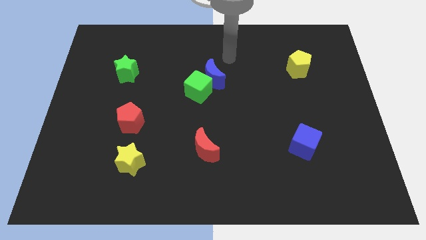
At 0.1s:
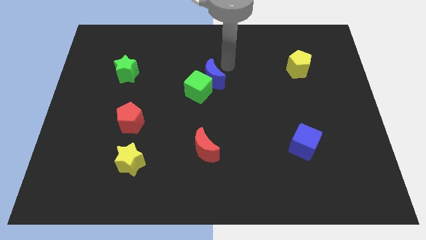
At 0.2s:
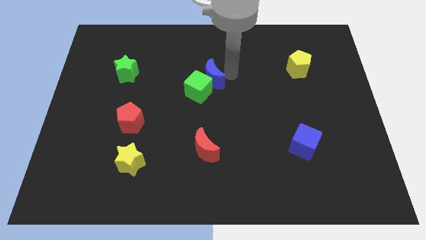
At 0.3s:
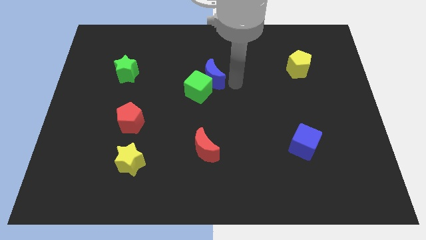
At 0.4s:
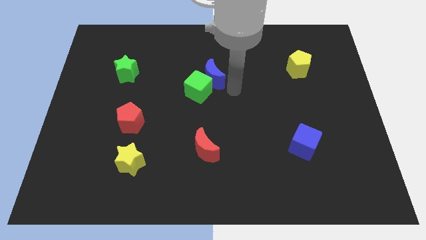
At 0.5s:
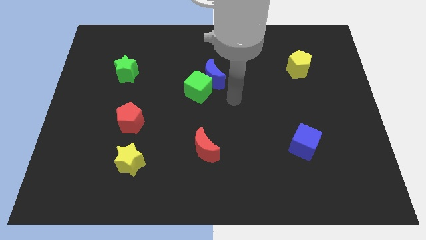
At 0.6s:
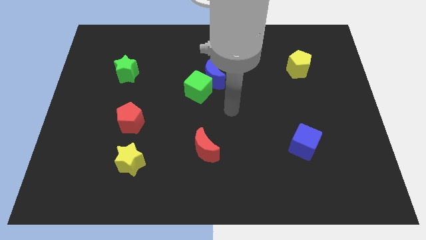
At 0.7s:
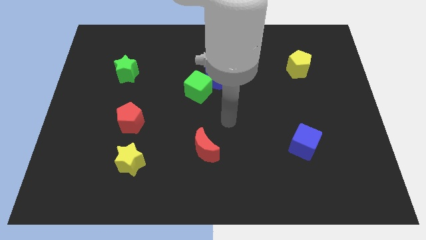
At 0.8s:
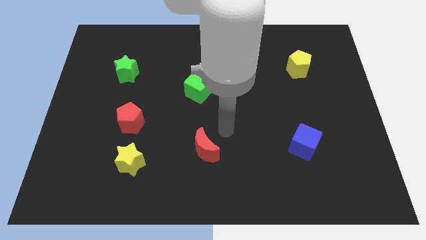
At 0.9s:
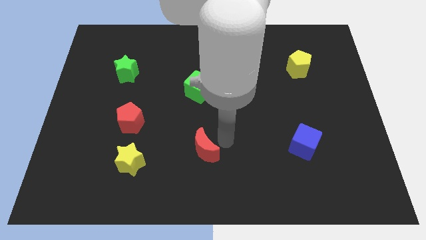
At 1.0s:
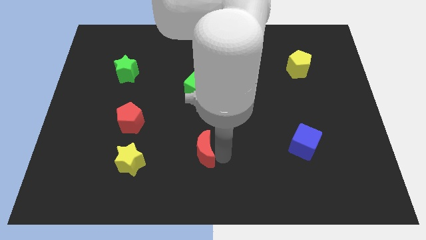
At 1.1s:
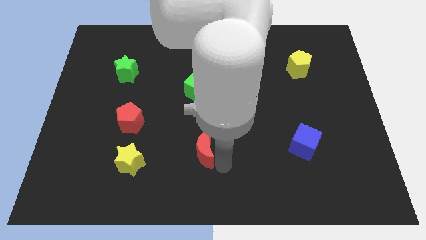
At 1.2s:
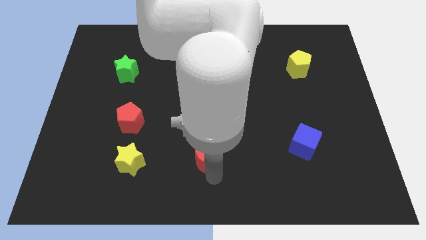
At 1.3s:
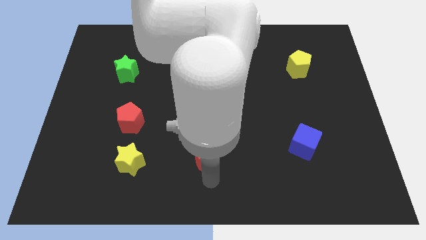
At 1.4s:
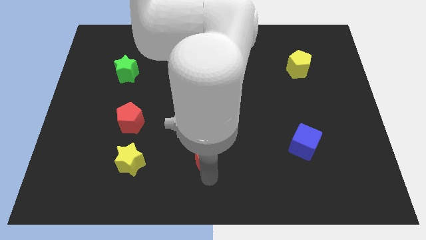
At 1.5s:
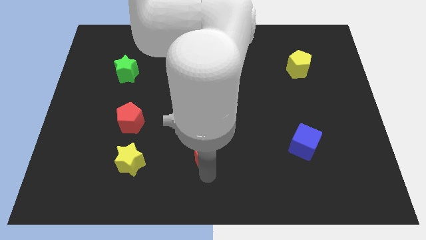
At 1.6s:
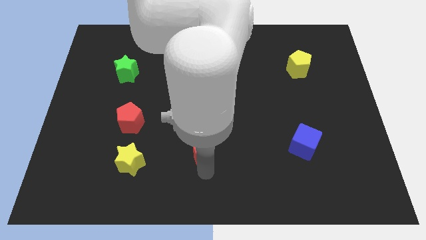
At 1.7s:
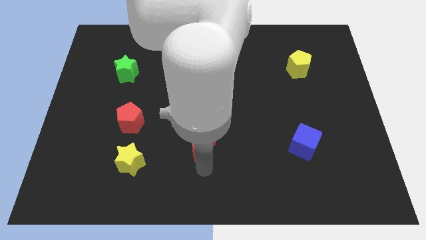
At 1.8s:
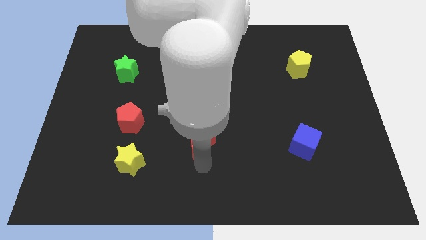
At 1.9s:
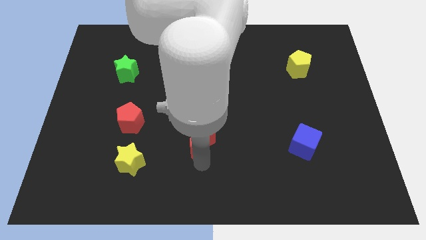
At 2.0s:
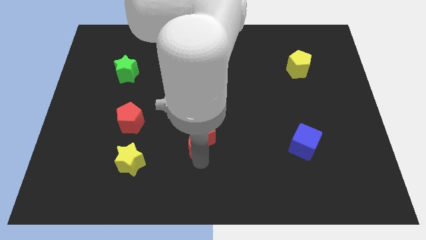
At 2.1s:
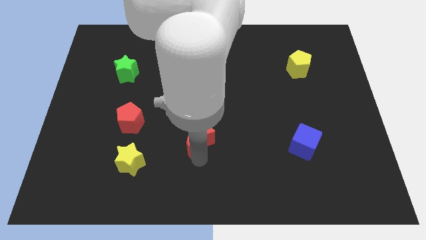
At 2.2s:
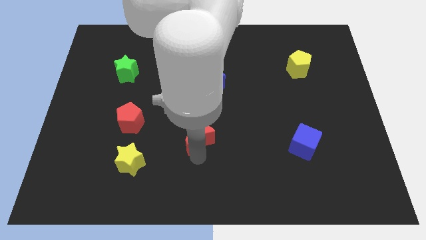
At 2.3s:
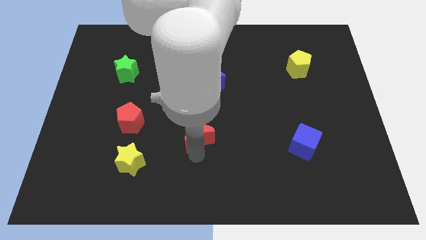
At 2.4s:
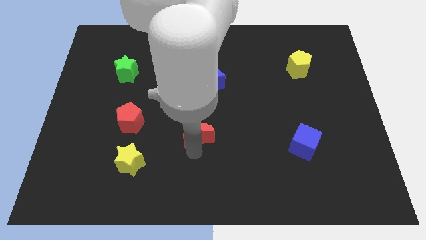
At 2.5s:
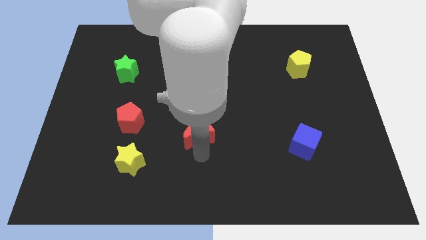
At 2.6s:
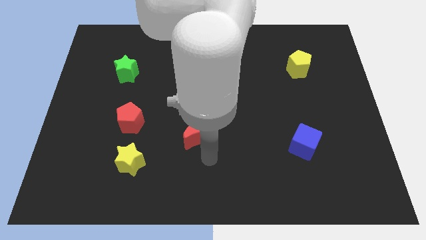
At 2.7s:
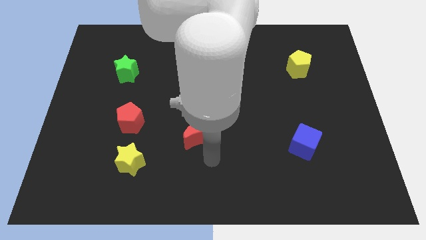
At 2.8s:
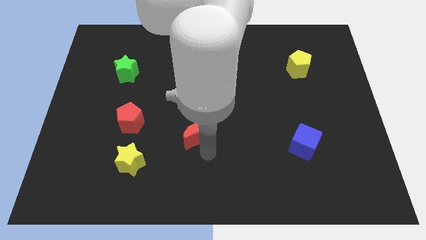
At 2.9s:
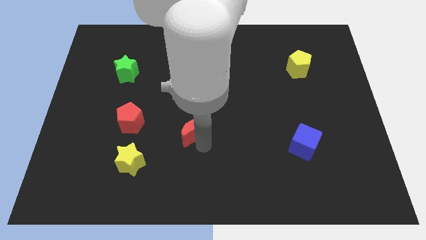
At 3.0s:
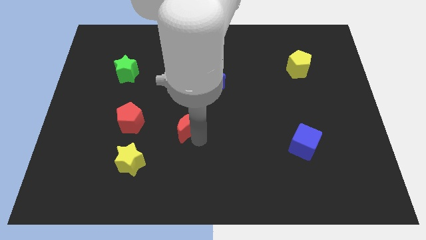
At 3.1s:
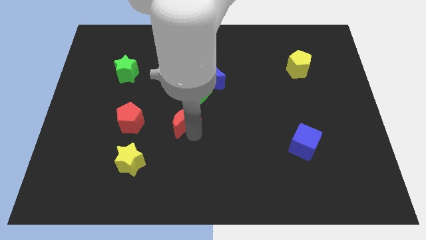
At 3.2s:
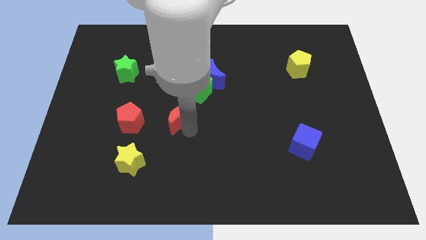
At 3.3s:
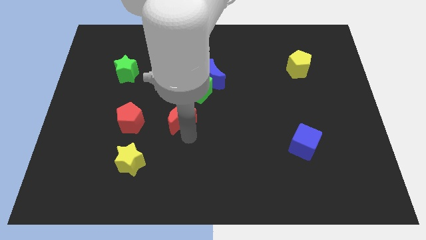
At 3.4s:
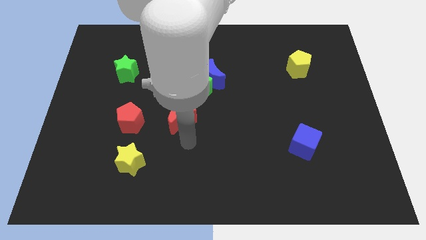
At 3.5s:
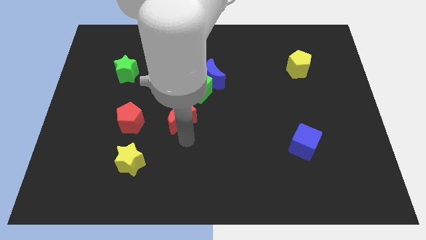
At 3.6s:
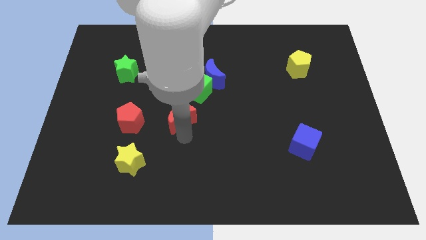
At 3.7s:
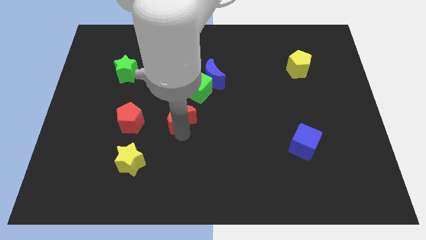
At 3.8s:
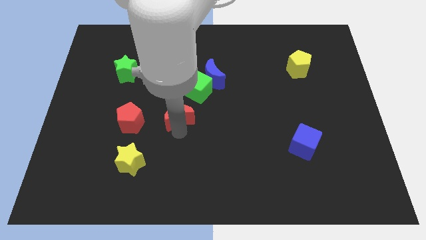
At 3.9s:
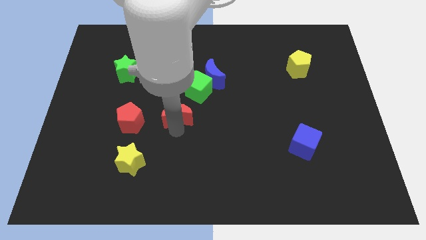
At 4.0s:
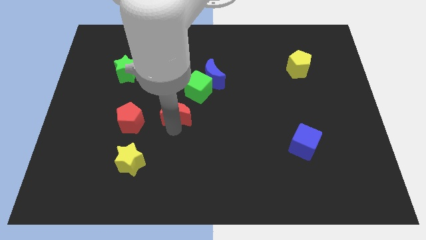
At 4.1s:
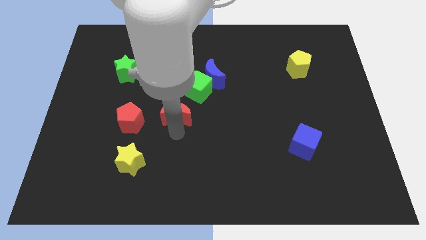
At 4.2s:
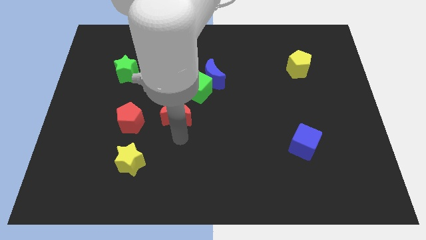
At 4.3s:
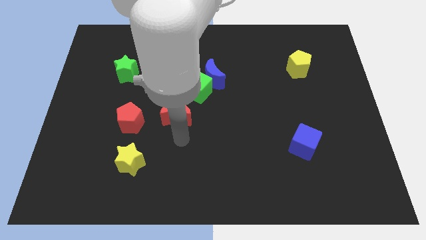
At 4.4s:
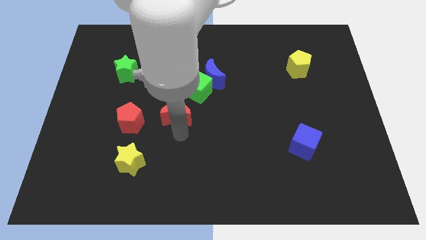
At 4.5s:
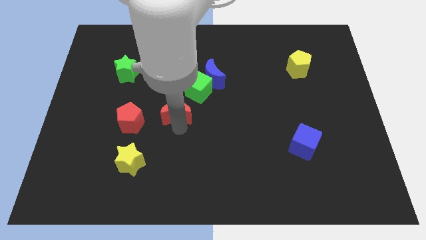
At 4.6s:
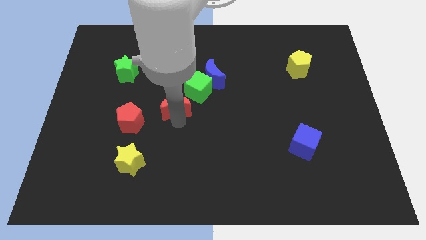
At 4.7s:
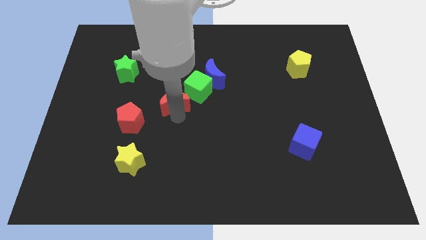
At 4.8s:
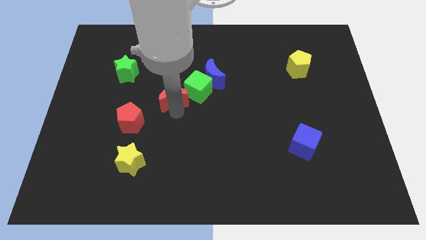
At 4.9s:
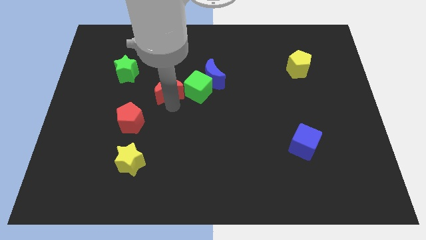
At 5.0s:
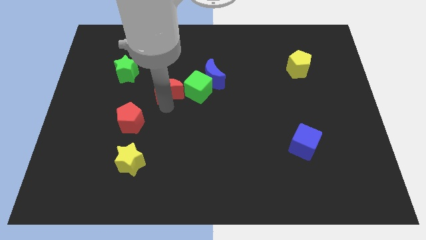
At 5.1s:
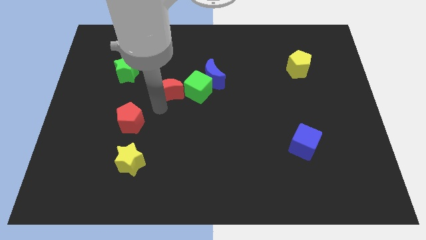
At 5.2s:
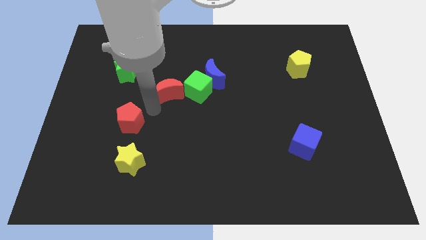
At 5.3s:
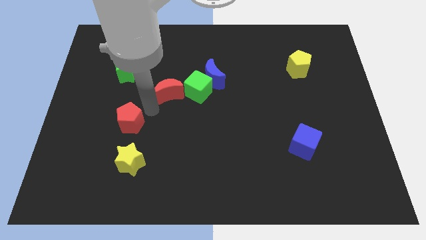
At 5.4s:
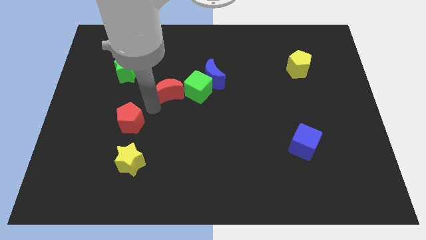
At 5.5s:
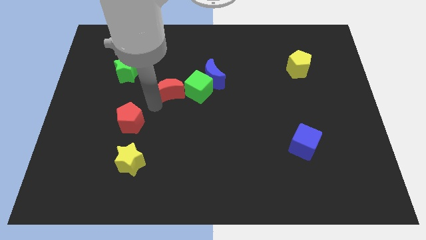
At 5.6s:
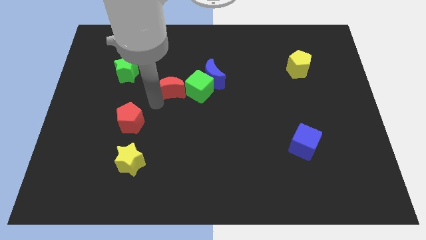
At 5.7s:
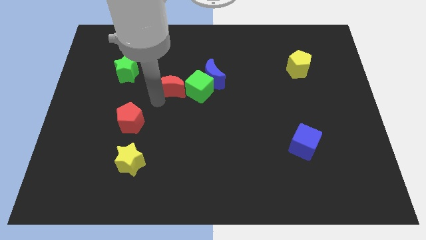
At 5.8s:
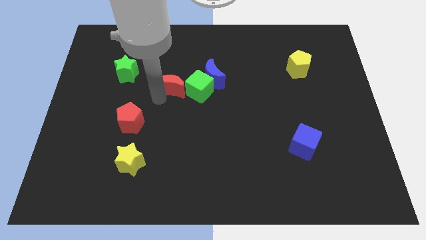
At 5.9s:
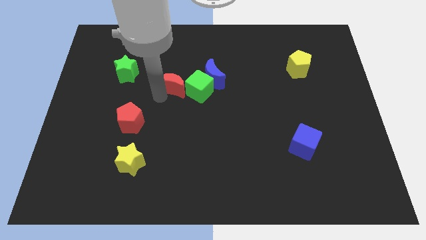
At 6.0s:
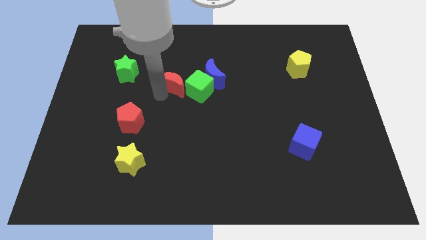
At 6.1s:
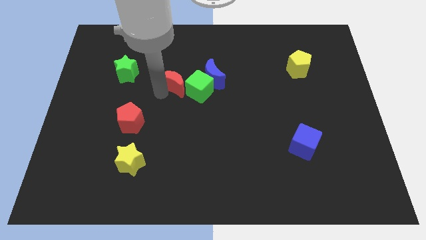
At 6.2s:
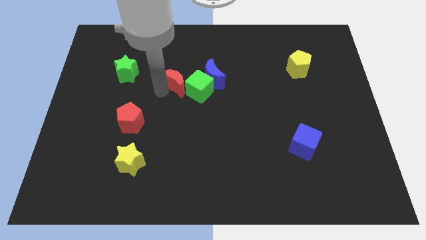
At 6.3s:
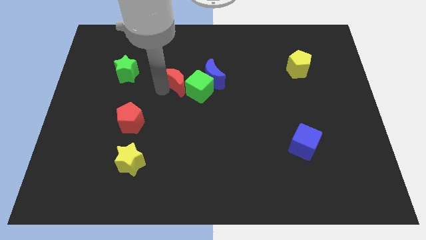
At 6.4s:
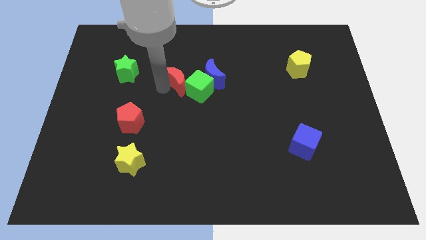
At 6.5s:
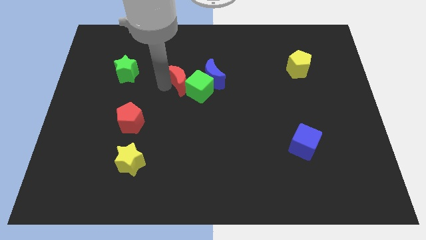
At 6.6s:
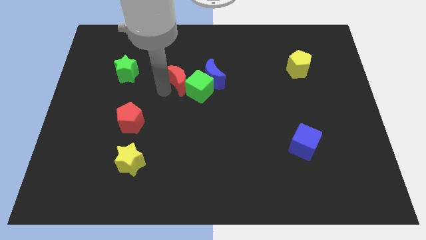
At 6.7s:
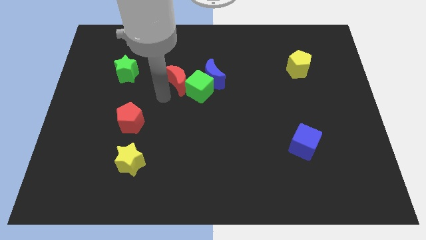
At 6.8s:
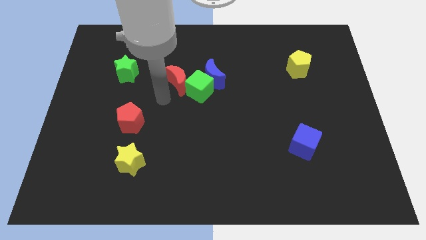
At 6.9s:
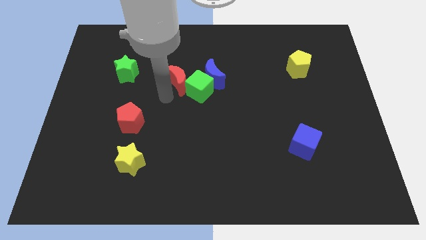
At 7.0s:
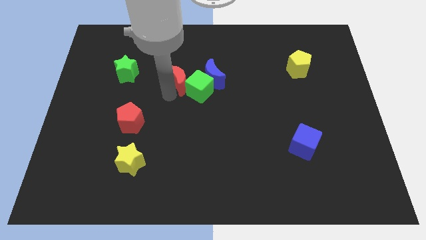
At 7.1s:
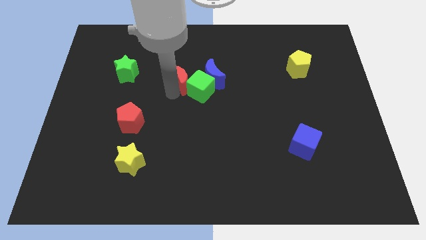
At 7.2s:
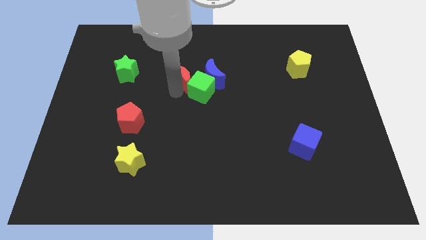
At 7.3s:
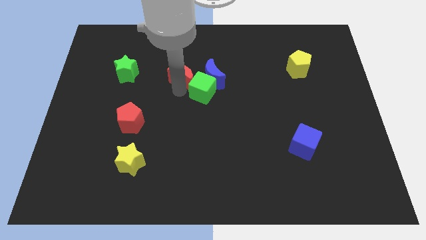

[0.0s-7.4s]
push the red moon to the top side of the green cube
